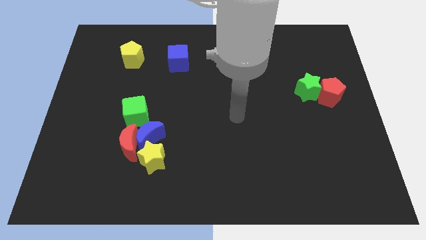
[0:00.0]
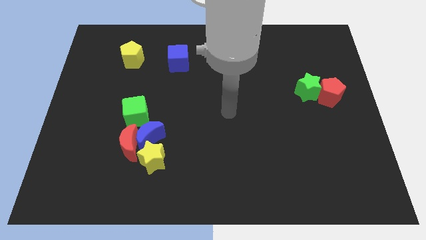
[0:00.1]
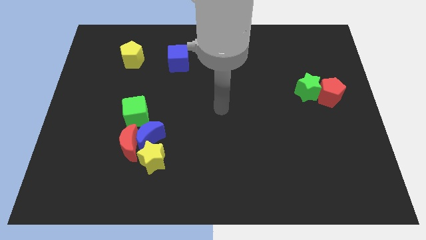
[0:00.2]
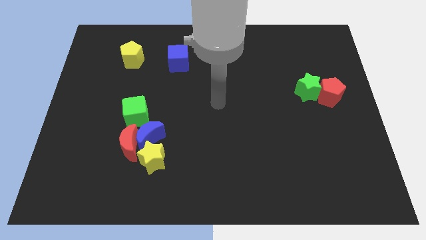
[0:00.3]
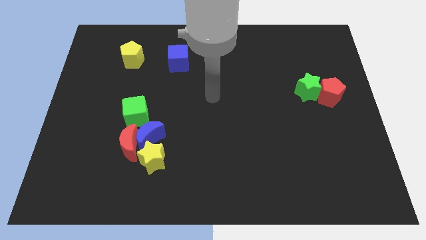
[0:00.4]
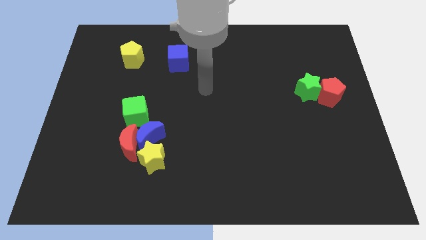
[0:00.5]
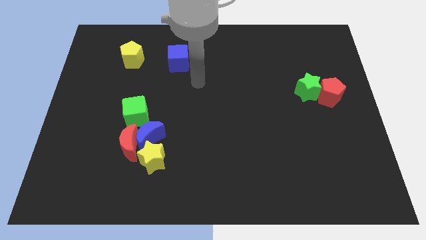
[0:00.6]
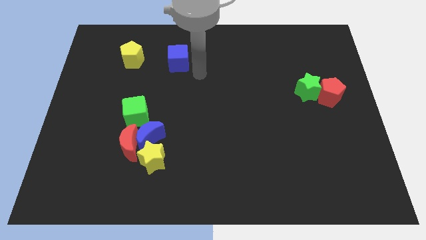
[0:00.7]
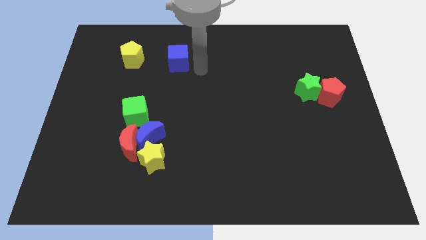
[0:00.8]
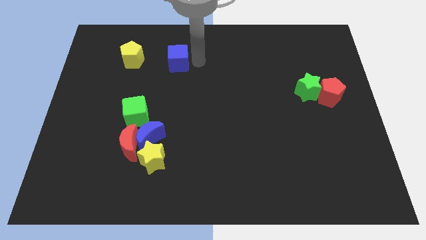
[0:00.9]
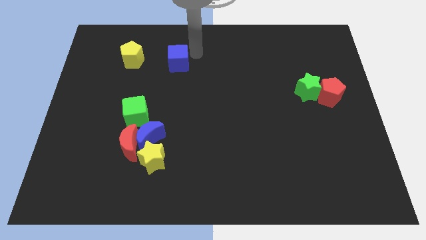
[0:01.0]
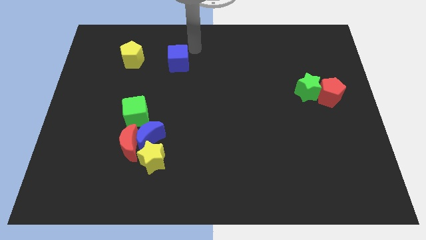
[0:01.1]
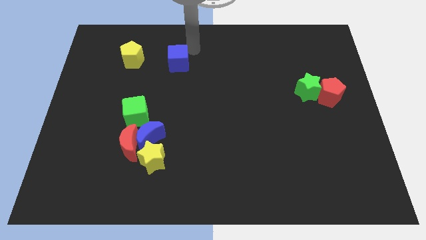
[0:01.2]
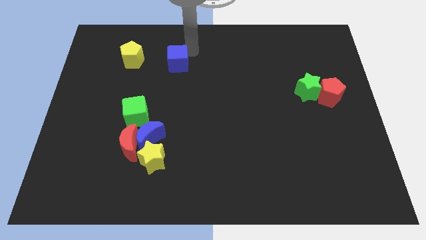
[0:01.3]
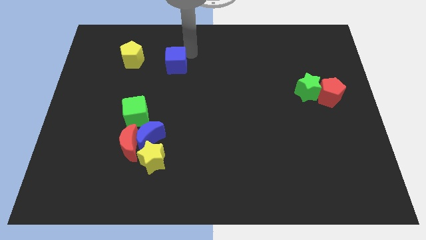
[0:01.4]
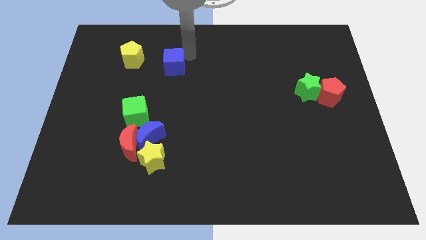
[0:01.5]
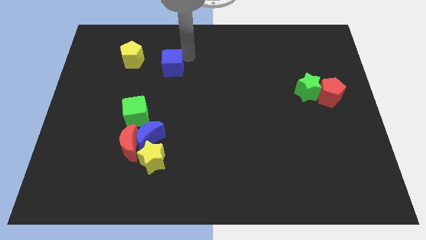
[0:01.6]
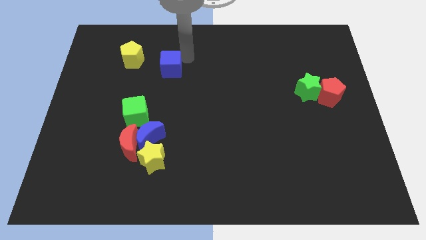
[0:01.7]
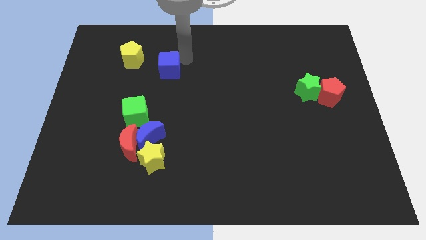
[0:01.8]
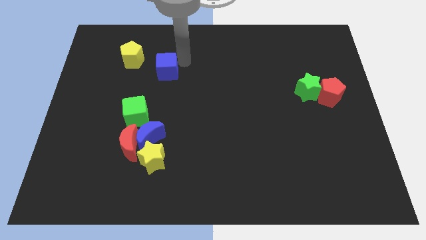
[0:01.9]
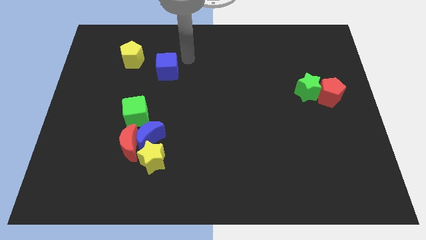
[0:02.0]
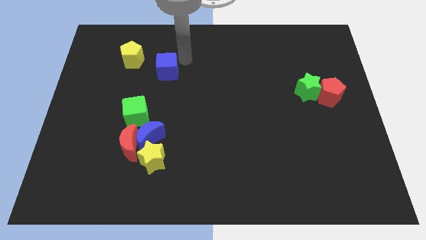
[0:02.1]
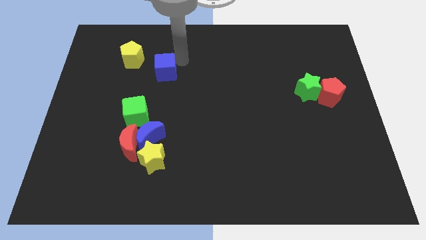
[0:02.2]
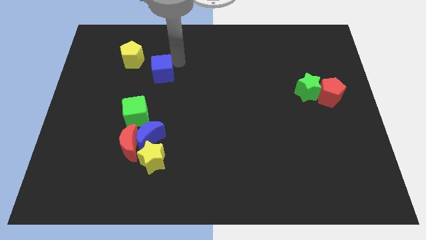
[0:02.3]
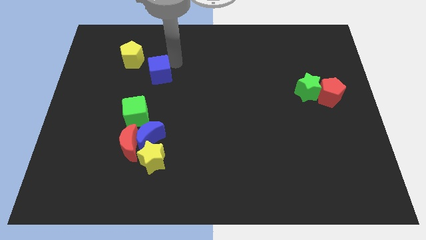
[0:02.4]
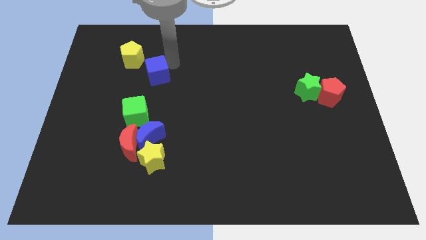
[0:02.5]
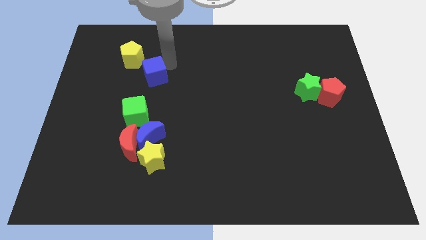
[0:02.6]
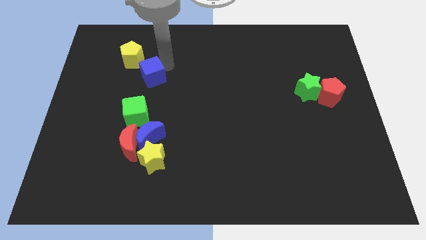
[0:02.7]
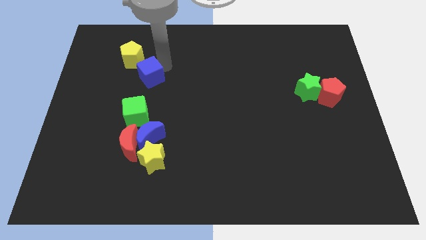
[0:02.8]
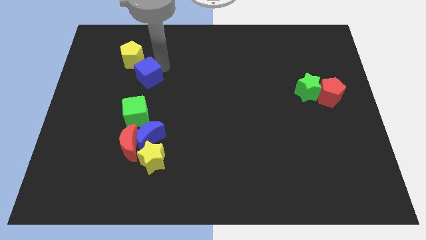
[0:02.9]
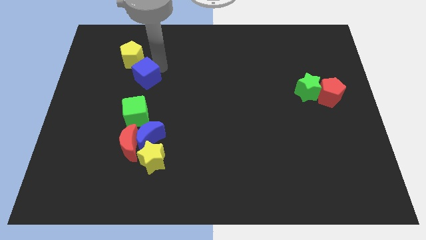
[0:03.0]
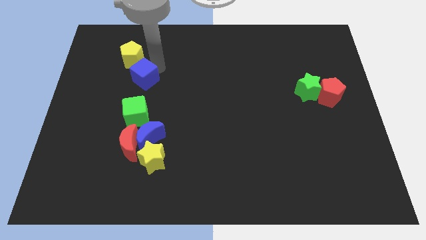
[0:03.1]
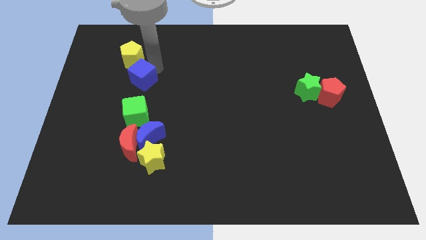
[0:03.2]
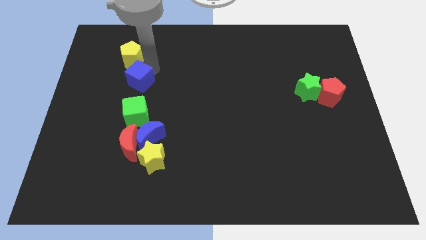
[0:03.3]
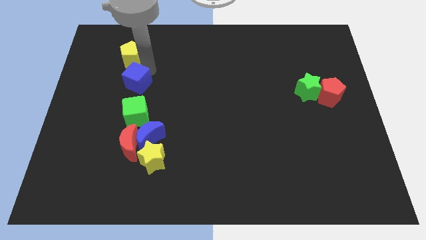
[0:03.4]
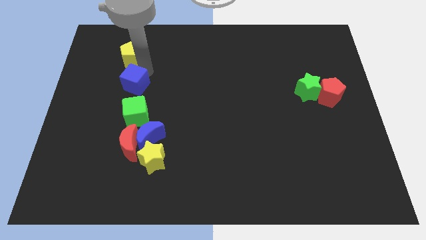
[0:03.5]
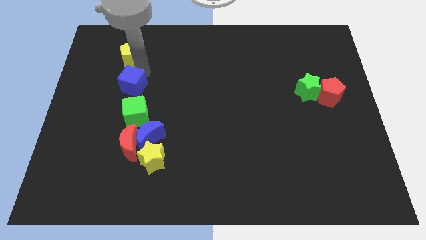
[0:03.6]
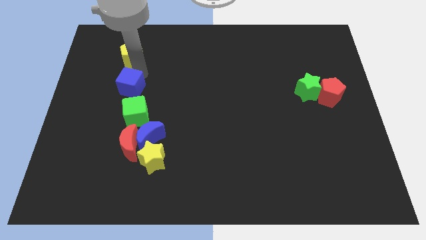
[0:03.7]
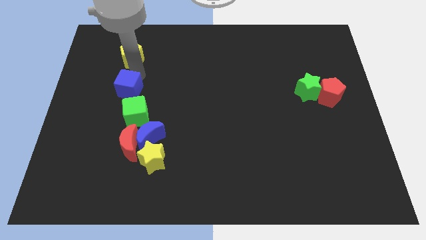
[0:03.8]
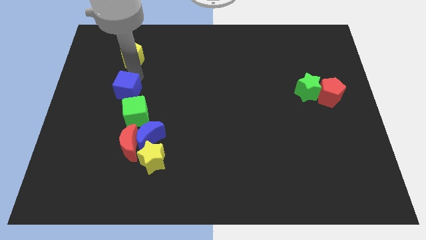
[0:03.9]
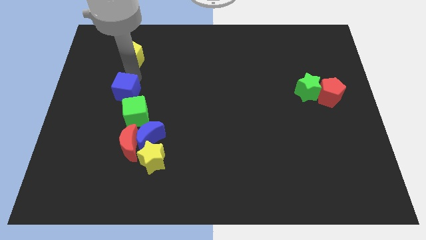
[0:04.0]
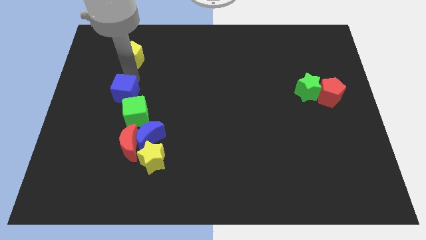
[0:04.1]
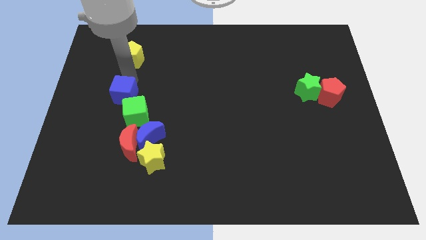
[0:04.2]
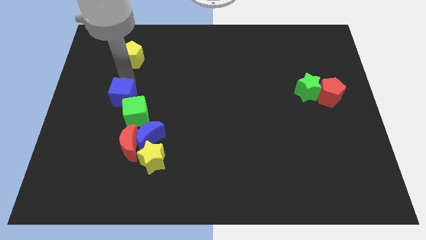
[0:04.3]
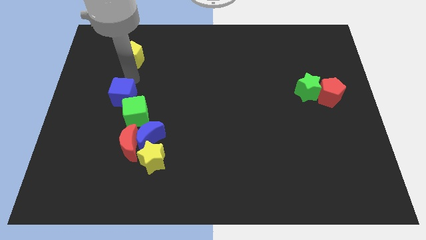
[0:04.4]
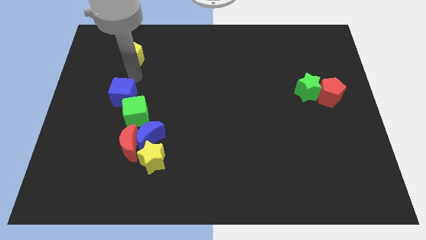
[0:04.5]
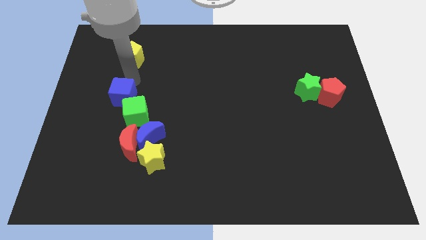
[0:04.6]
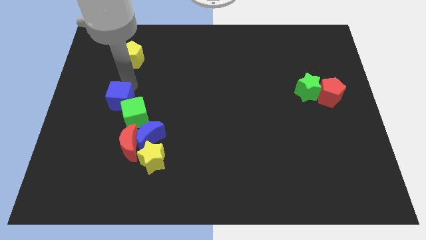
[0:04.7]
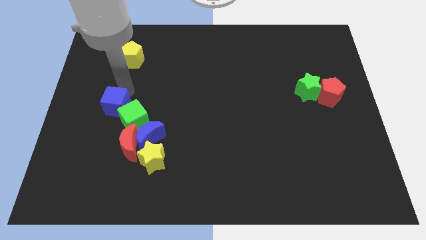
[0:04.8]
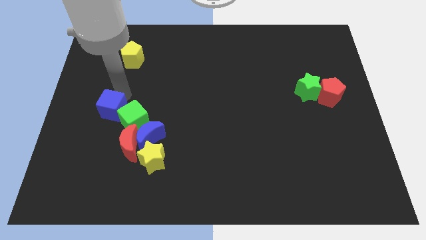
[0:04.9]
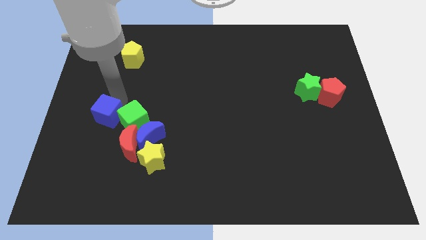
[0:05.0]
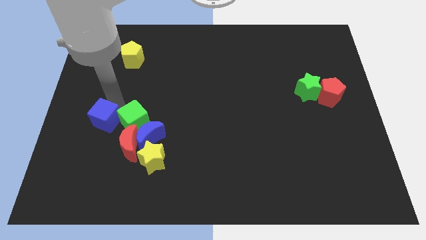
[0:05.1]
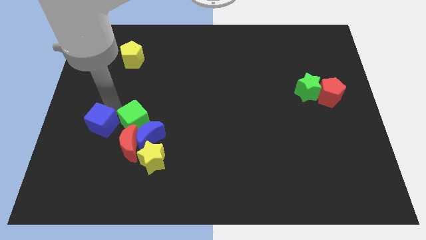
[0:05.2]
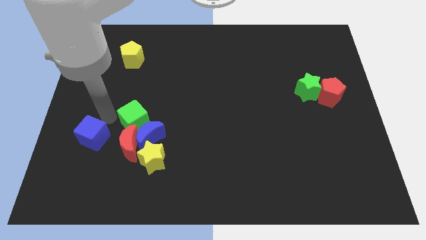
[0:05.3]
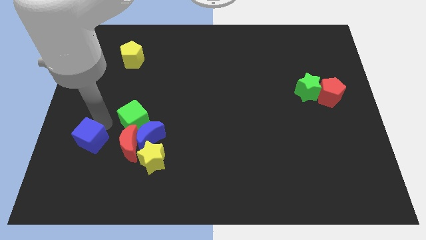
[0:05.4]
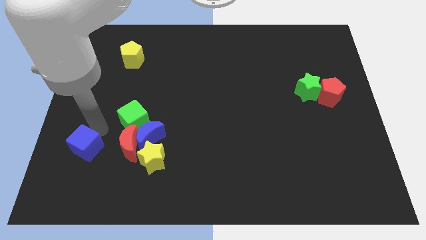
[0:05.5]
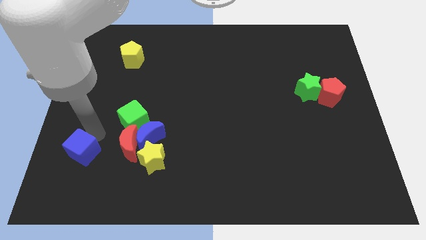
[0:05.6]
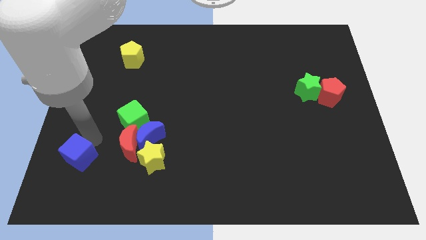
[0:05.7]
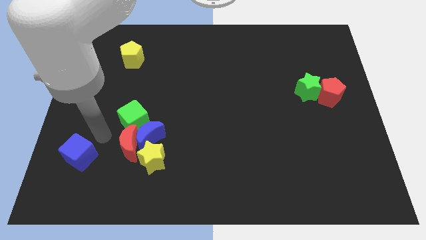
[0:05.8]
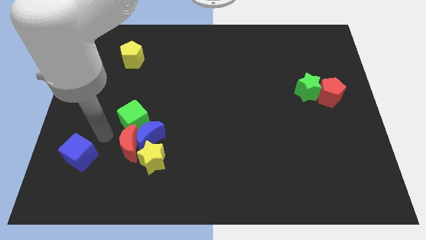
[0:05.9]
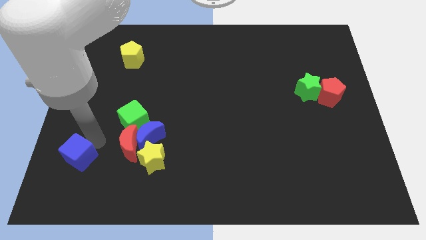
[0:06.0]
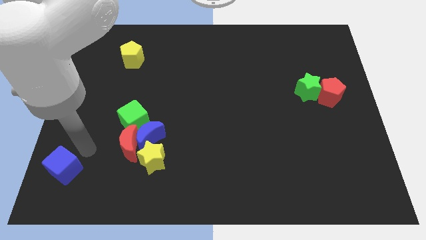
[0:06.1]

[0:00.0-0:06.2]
slide the blue cube to the lower left corner
